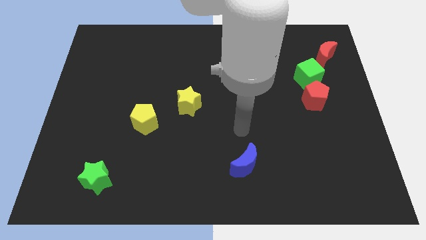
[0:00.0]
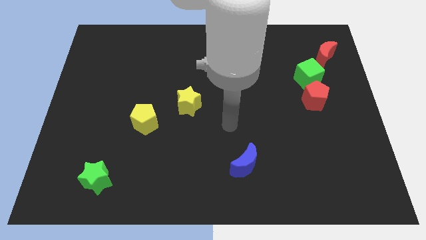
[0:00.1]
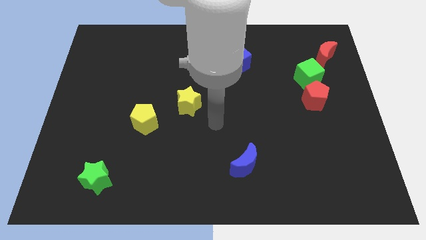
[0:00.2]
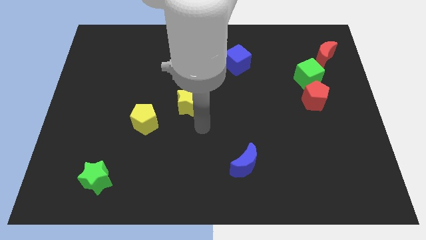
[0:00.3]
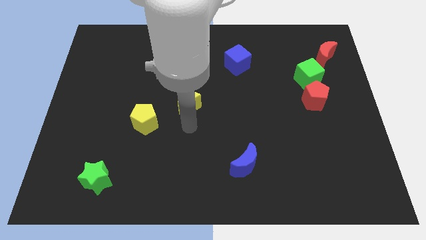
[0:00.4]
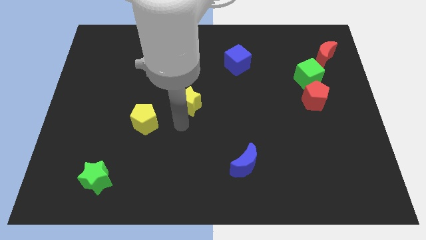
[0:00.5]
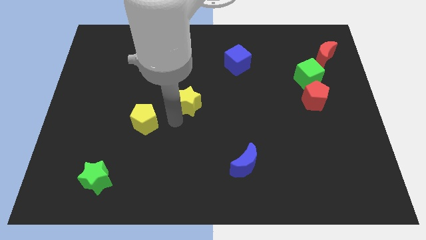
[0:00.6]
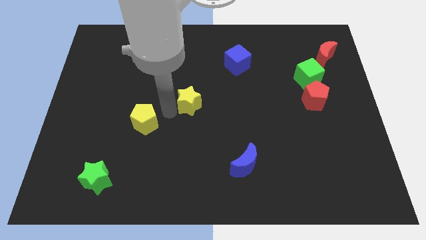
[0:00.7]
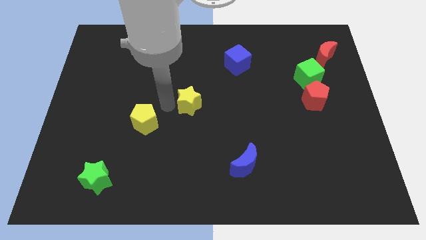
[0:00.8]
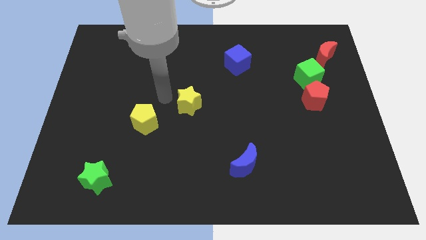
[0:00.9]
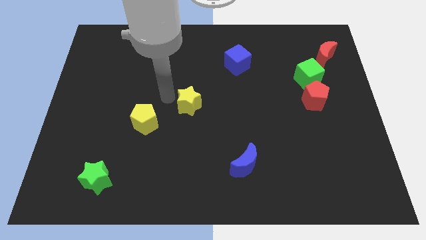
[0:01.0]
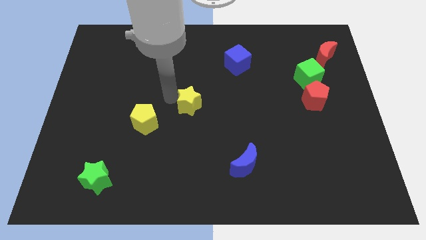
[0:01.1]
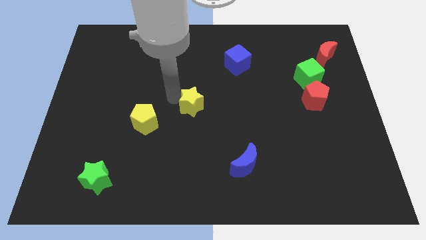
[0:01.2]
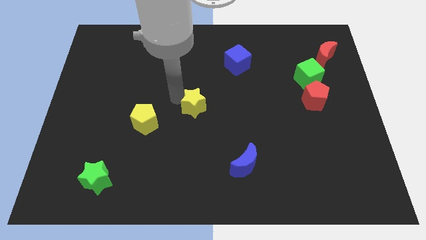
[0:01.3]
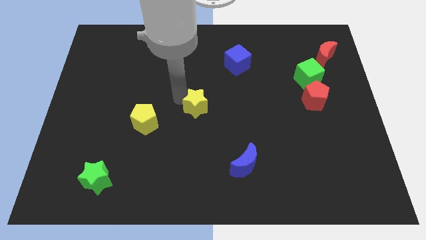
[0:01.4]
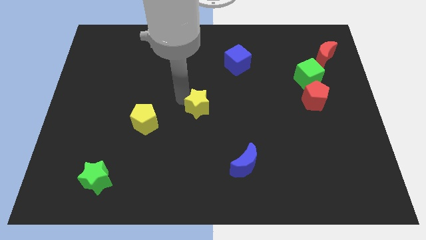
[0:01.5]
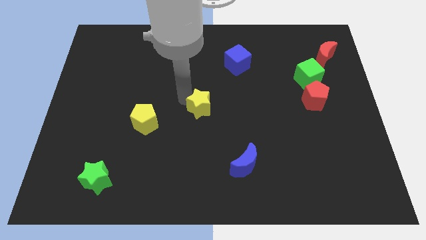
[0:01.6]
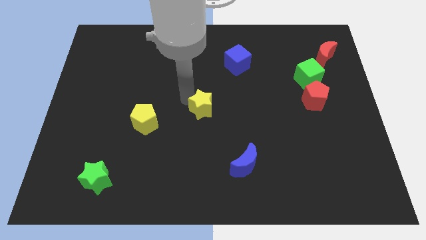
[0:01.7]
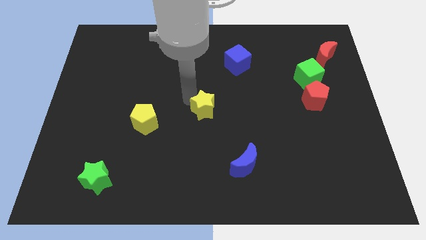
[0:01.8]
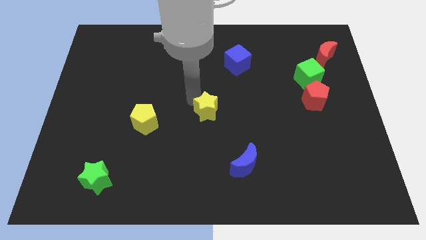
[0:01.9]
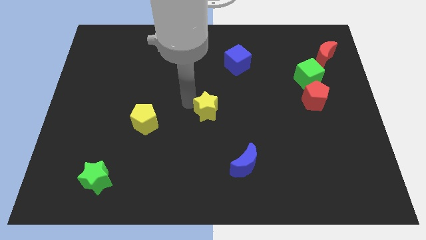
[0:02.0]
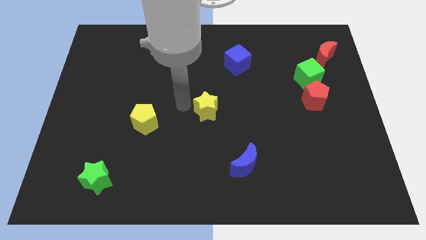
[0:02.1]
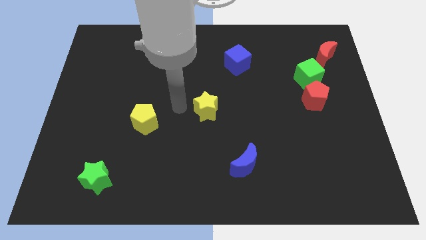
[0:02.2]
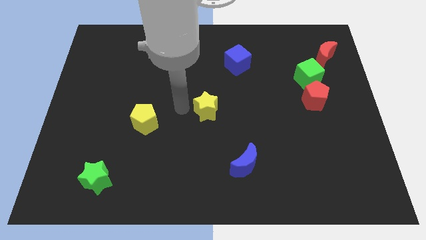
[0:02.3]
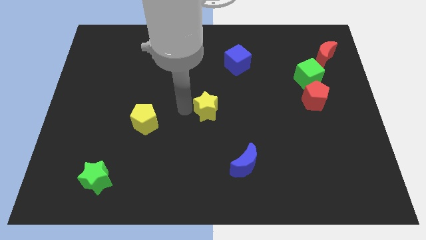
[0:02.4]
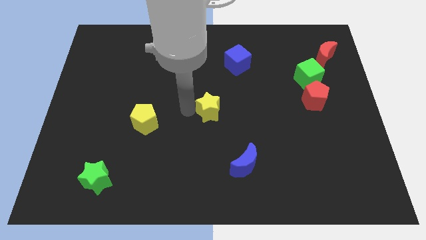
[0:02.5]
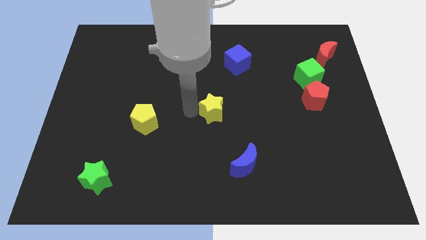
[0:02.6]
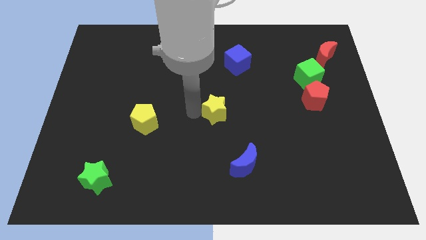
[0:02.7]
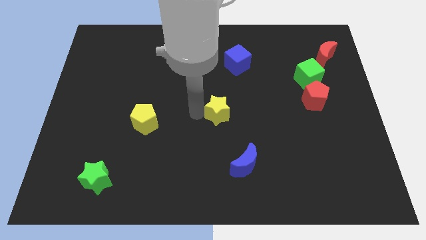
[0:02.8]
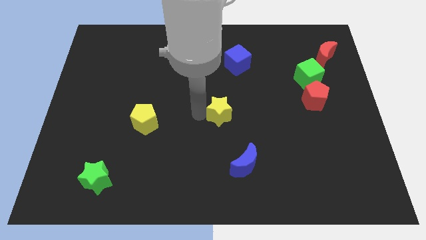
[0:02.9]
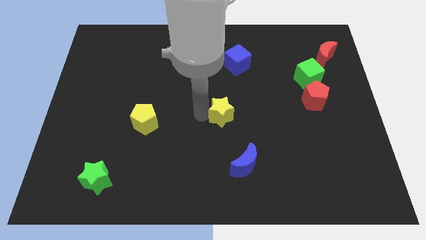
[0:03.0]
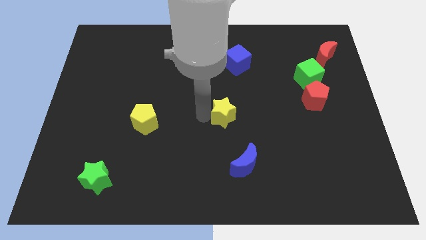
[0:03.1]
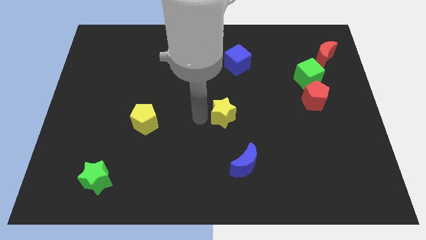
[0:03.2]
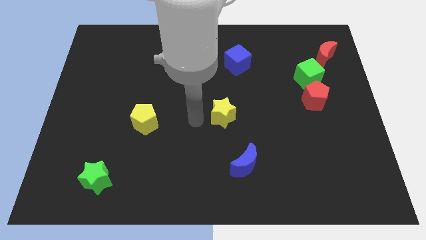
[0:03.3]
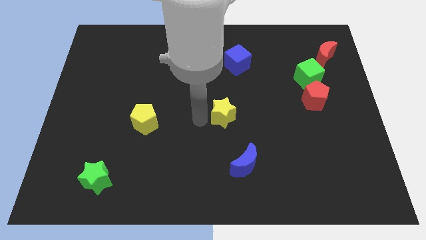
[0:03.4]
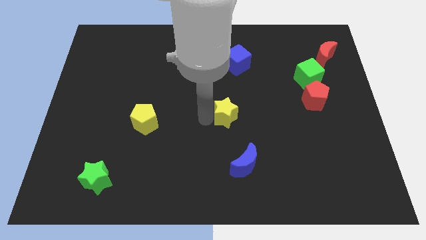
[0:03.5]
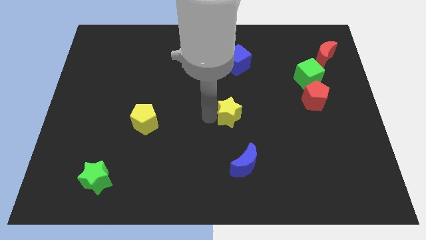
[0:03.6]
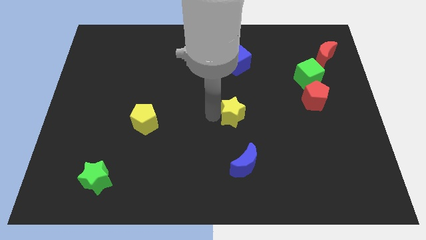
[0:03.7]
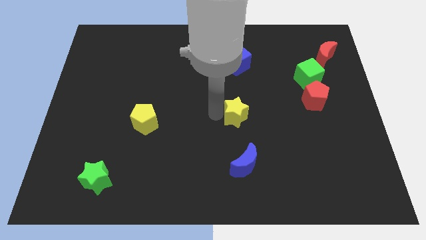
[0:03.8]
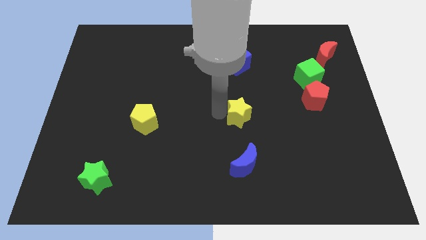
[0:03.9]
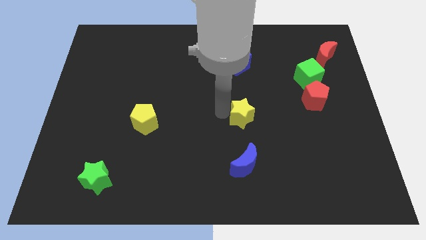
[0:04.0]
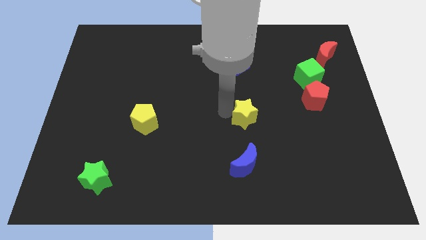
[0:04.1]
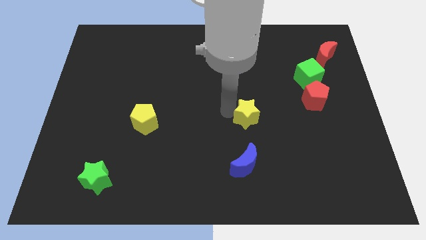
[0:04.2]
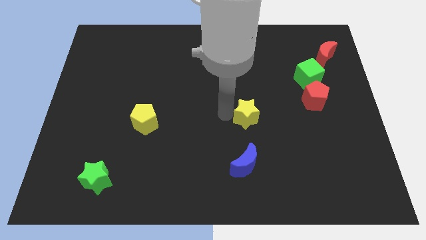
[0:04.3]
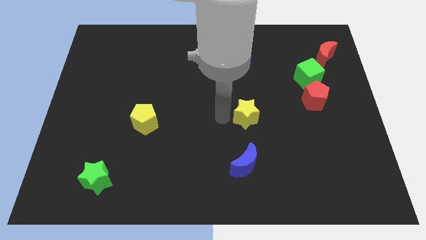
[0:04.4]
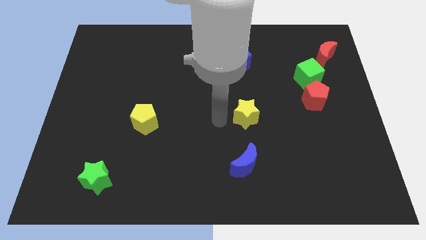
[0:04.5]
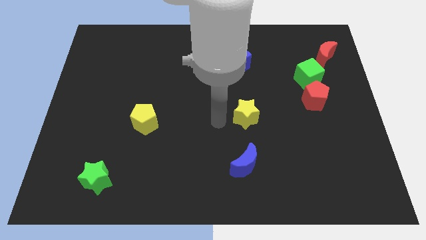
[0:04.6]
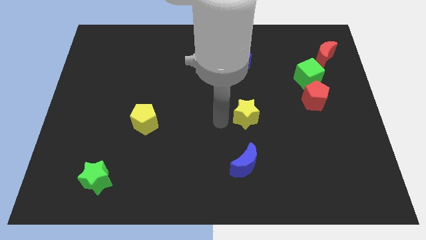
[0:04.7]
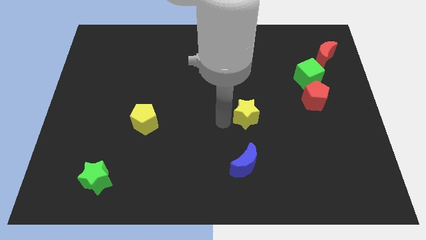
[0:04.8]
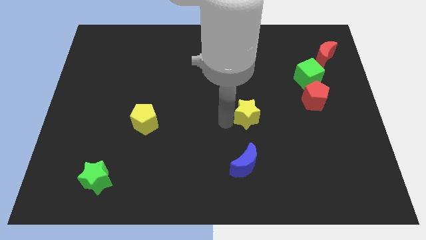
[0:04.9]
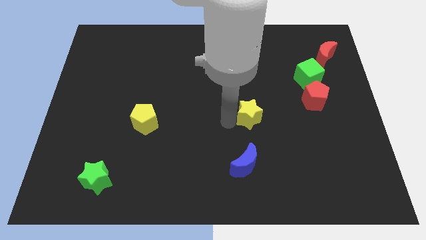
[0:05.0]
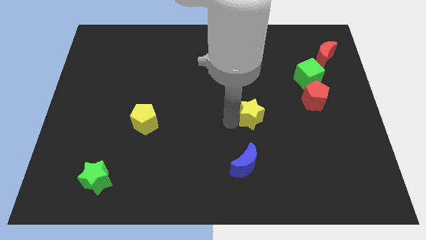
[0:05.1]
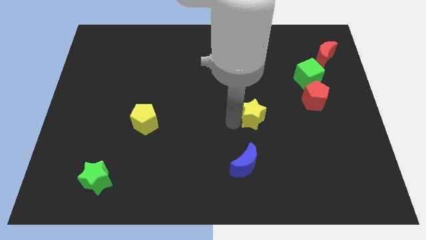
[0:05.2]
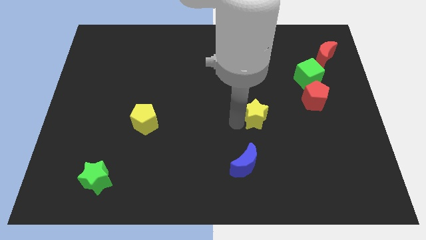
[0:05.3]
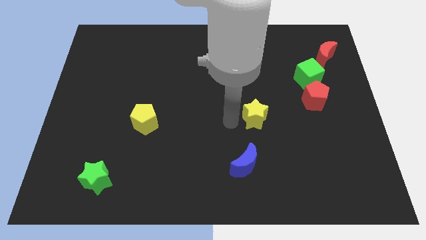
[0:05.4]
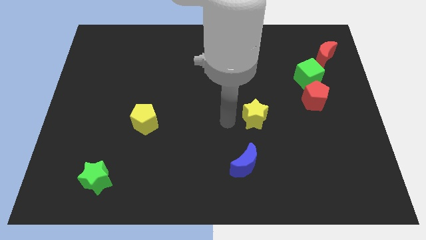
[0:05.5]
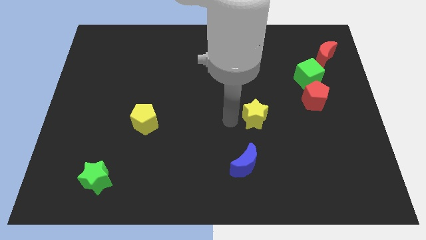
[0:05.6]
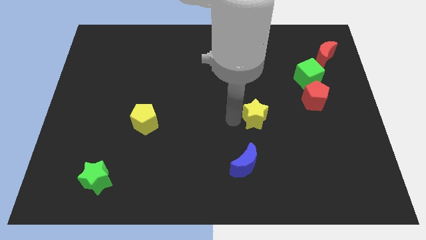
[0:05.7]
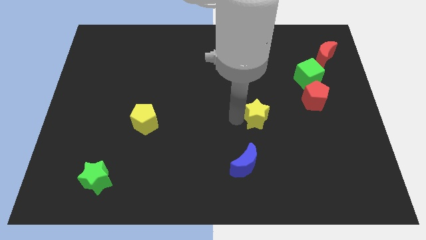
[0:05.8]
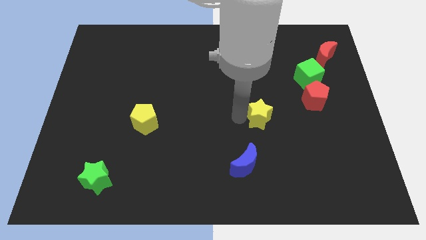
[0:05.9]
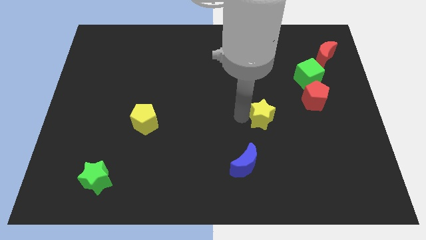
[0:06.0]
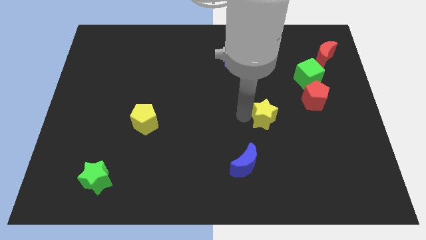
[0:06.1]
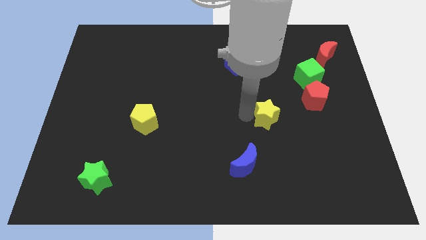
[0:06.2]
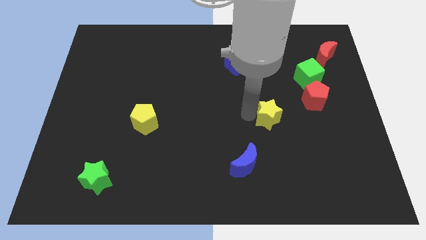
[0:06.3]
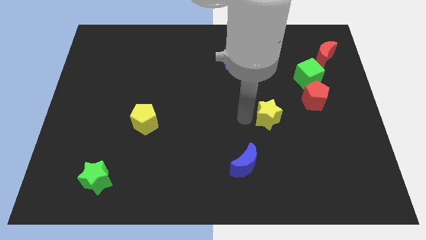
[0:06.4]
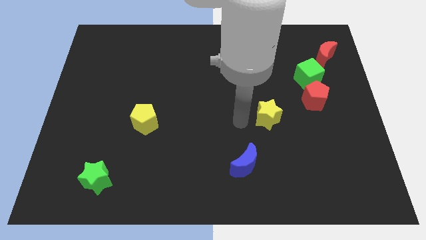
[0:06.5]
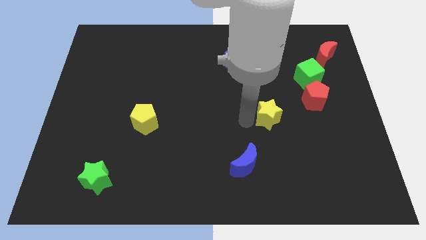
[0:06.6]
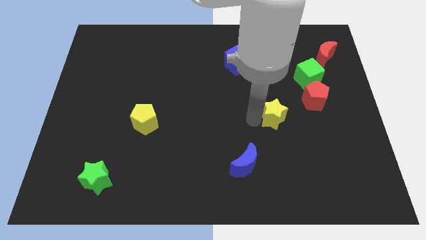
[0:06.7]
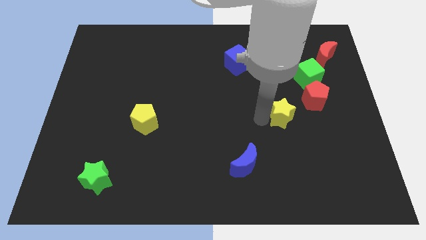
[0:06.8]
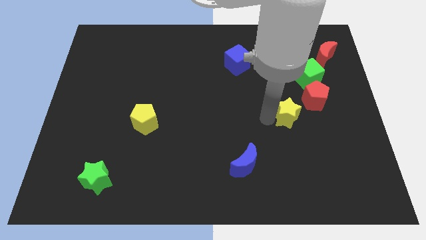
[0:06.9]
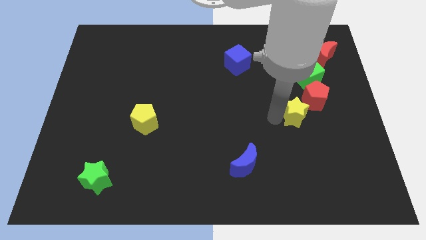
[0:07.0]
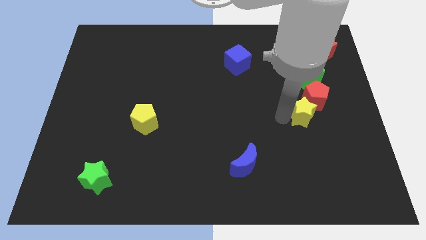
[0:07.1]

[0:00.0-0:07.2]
move the yellow star to the bottom of the green cube

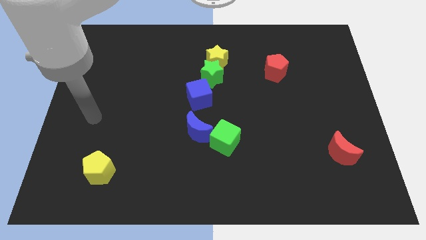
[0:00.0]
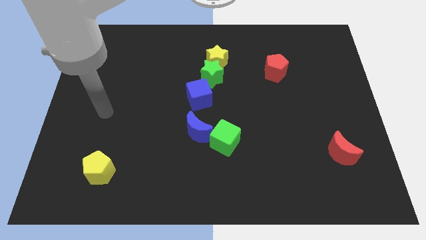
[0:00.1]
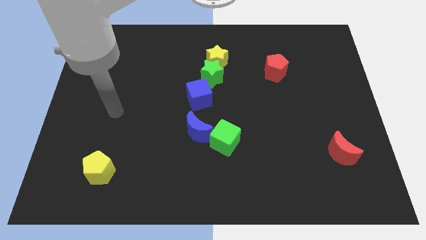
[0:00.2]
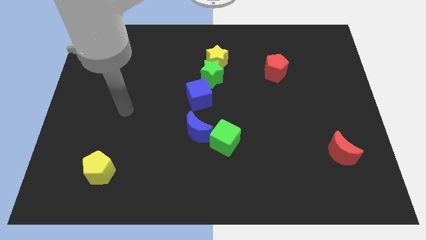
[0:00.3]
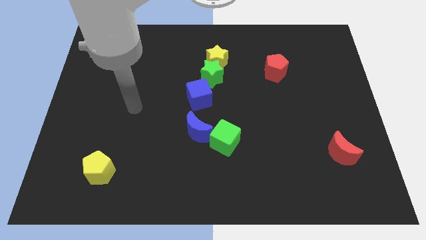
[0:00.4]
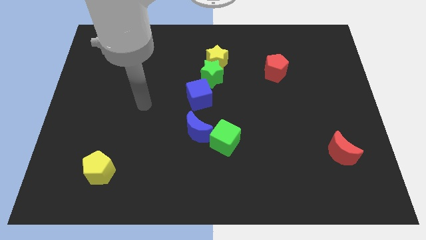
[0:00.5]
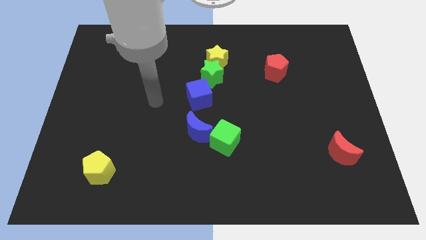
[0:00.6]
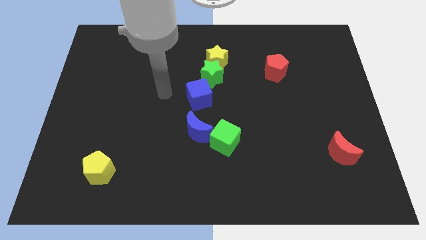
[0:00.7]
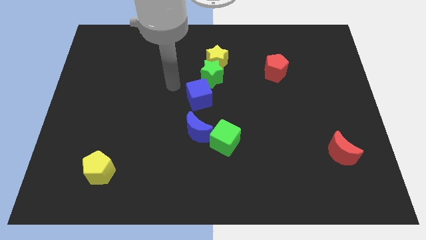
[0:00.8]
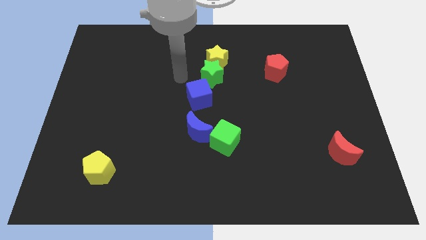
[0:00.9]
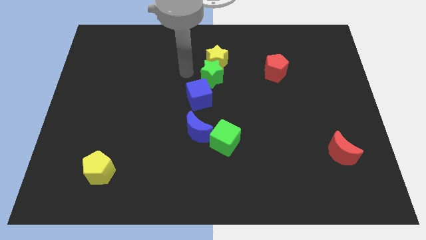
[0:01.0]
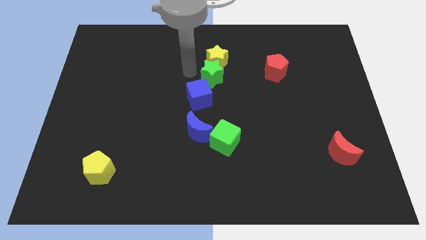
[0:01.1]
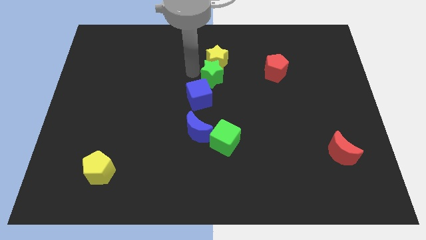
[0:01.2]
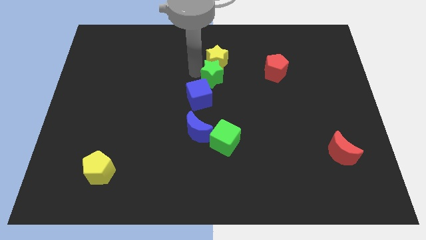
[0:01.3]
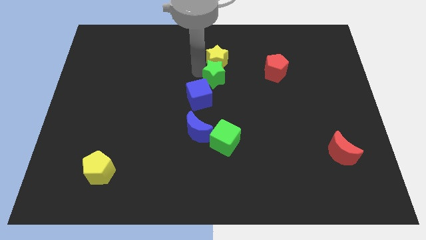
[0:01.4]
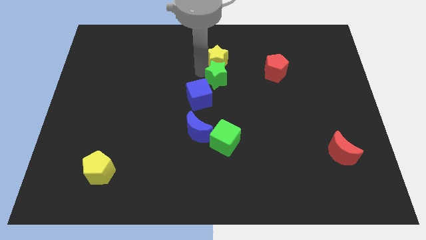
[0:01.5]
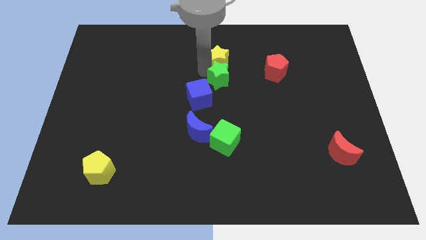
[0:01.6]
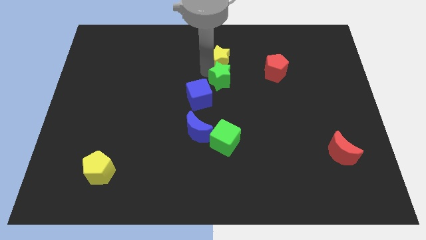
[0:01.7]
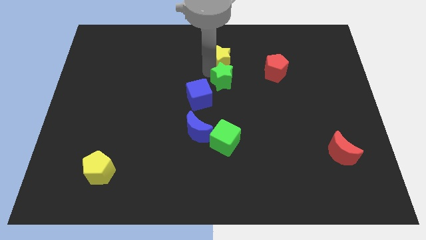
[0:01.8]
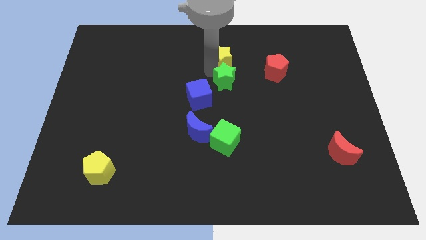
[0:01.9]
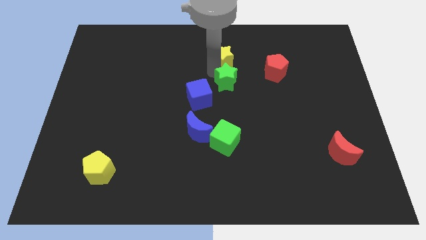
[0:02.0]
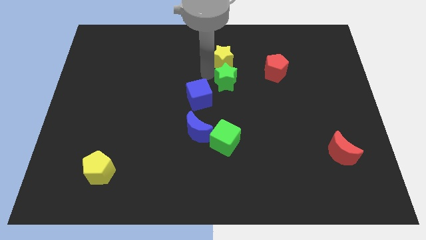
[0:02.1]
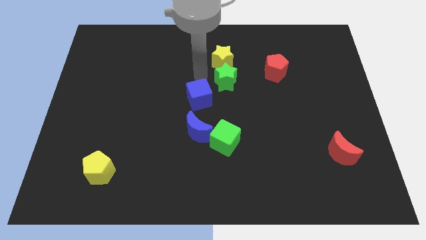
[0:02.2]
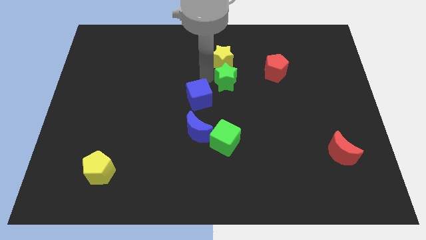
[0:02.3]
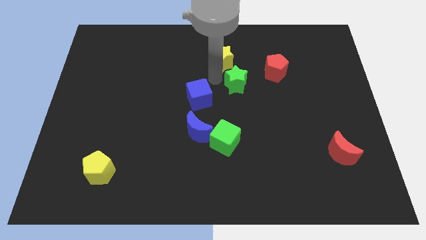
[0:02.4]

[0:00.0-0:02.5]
slide the green star to the bottom left of the red pentagon
